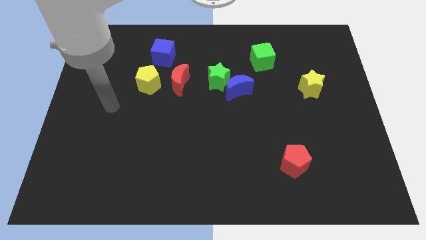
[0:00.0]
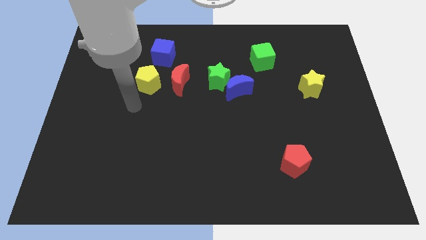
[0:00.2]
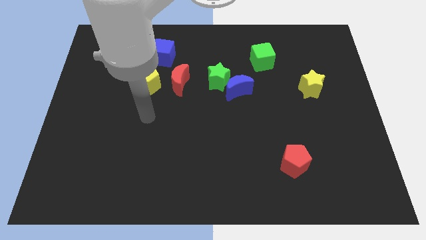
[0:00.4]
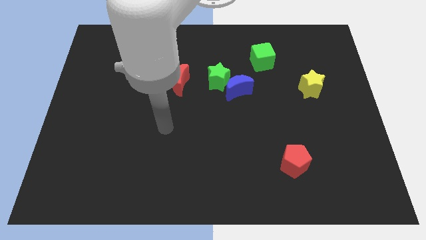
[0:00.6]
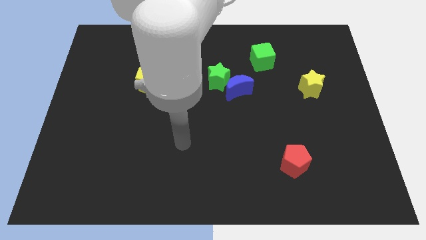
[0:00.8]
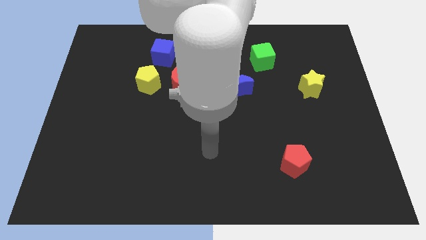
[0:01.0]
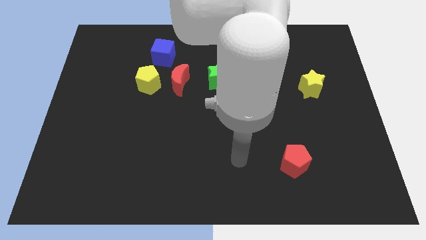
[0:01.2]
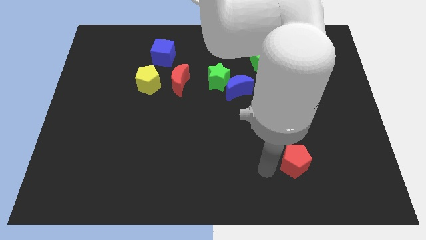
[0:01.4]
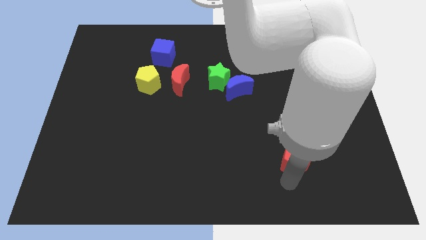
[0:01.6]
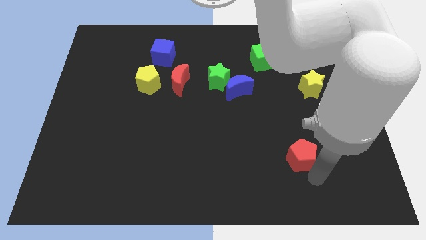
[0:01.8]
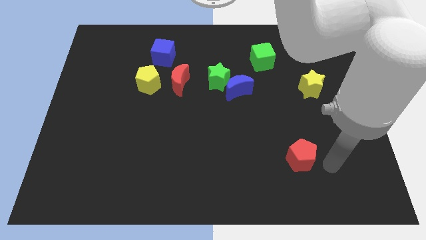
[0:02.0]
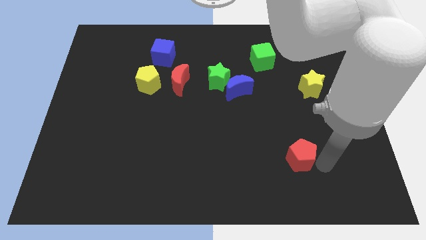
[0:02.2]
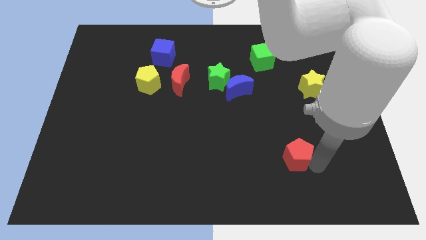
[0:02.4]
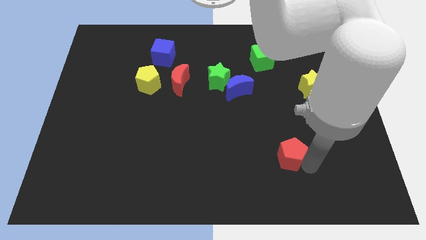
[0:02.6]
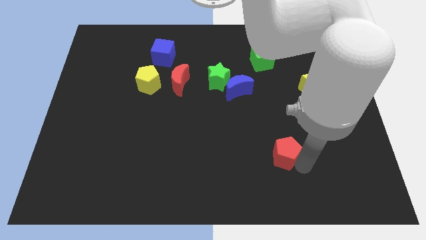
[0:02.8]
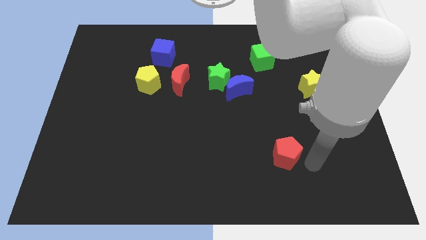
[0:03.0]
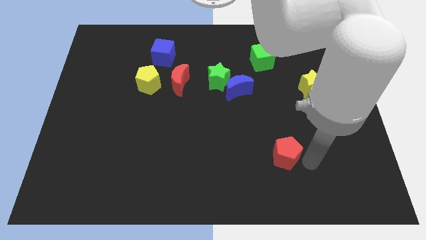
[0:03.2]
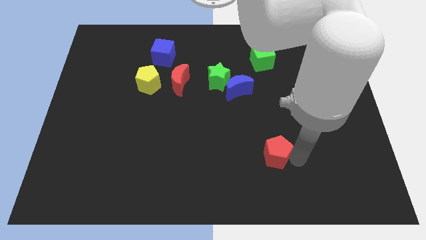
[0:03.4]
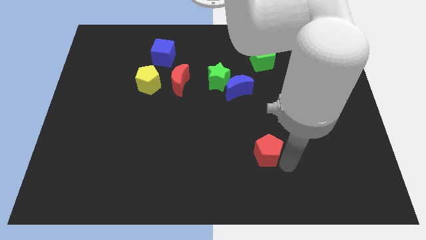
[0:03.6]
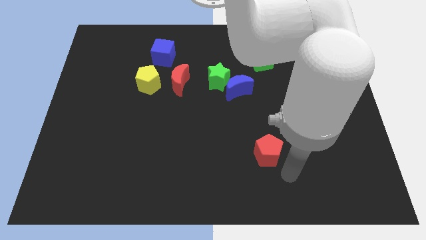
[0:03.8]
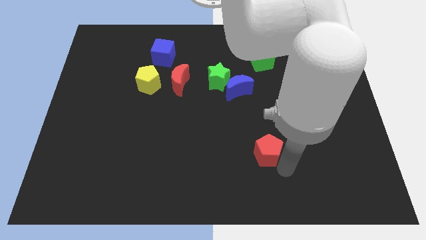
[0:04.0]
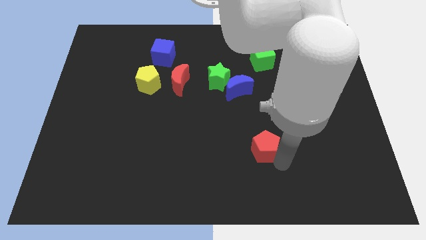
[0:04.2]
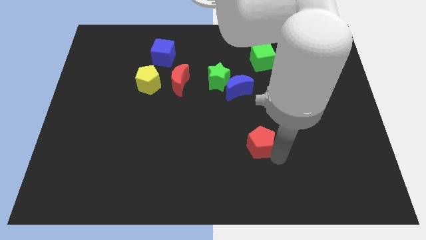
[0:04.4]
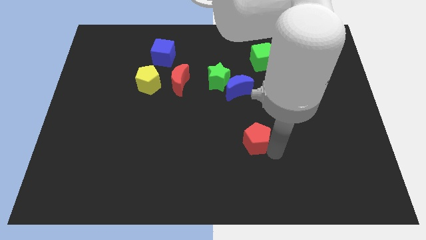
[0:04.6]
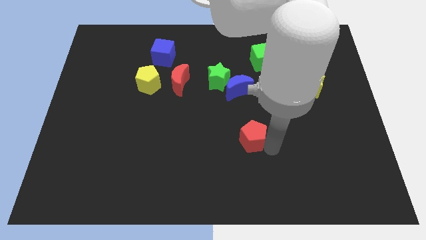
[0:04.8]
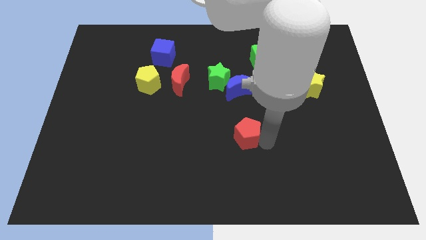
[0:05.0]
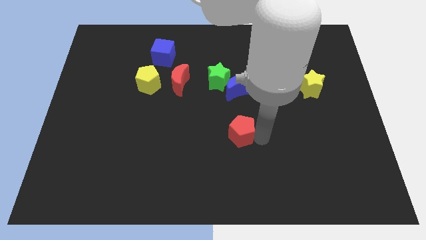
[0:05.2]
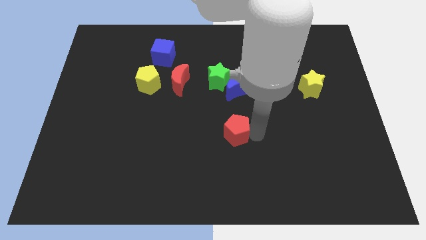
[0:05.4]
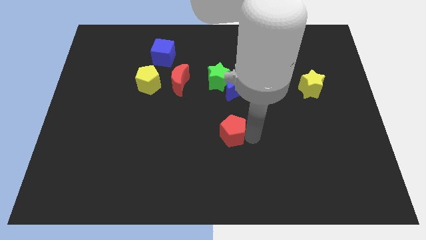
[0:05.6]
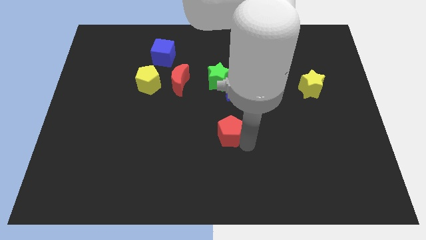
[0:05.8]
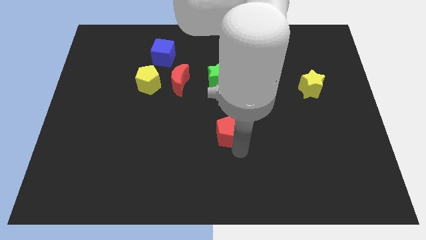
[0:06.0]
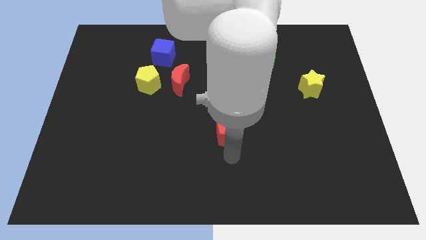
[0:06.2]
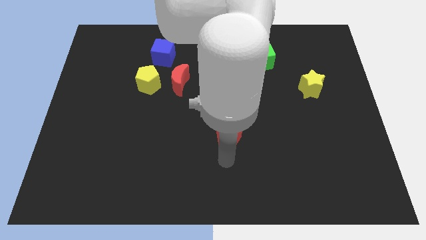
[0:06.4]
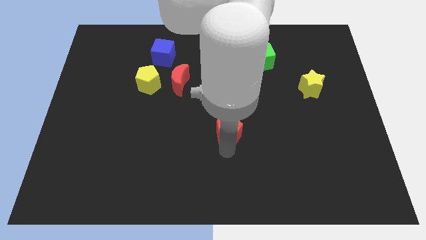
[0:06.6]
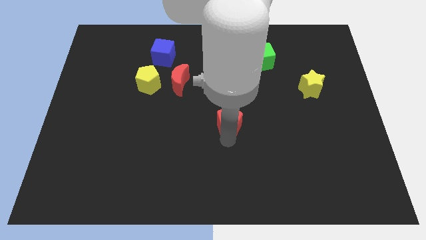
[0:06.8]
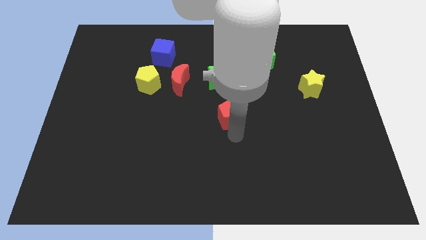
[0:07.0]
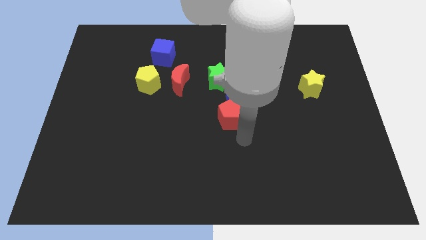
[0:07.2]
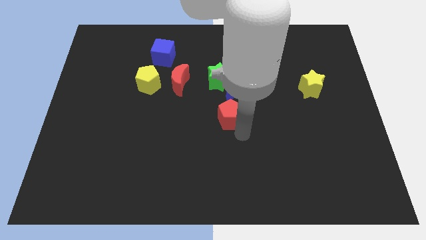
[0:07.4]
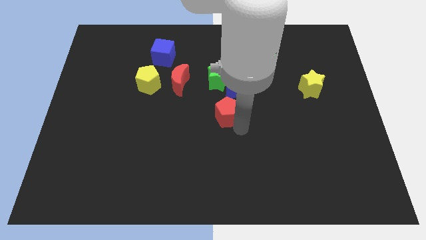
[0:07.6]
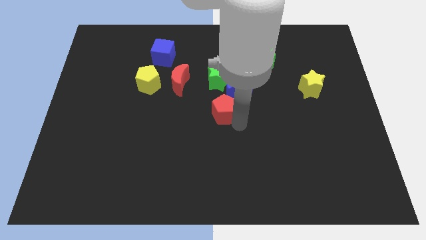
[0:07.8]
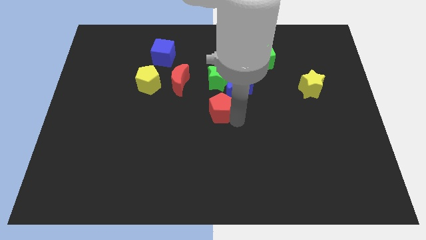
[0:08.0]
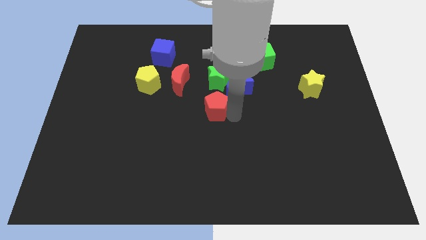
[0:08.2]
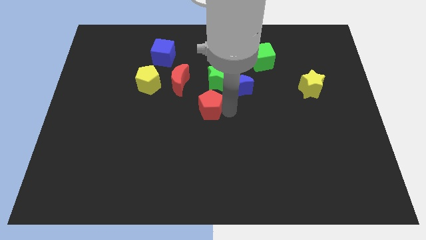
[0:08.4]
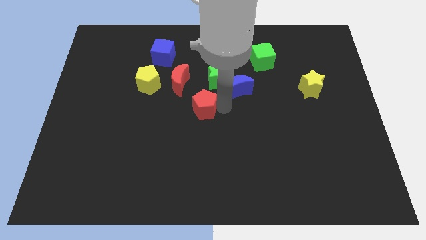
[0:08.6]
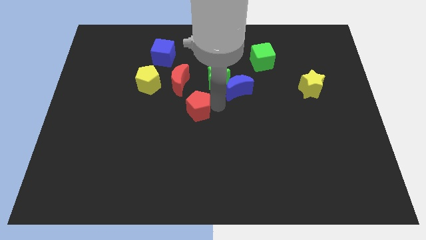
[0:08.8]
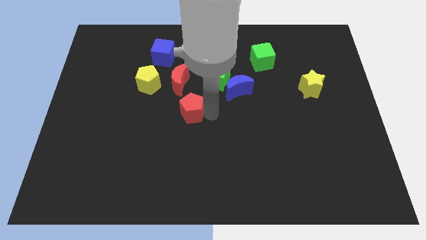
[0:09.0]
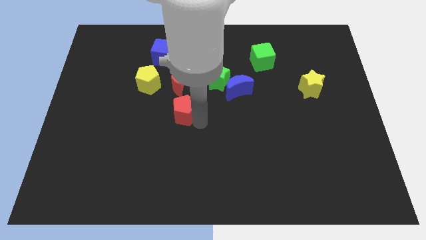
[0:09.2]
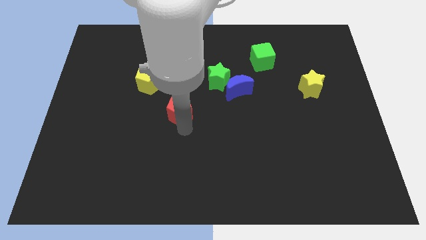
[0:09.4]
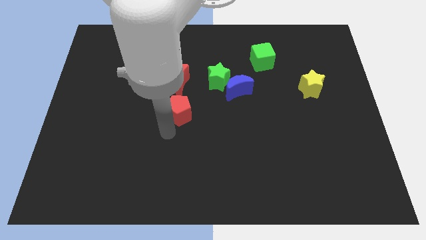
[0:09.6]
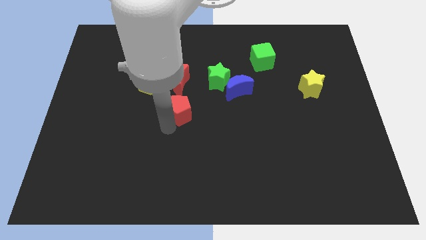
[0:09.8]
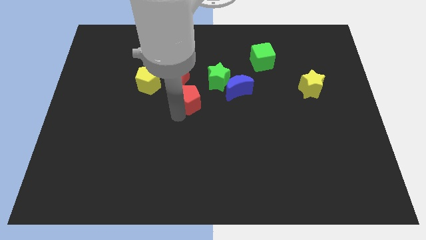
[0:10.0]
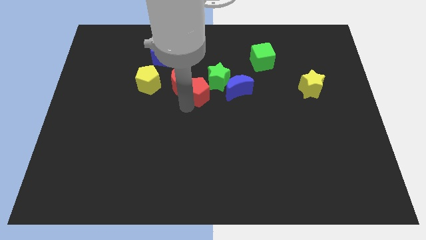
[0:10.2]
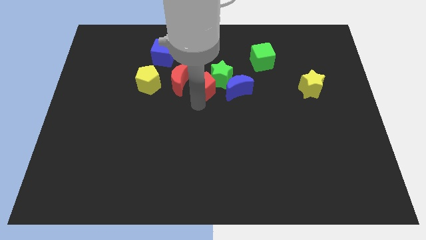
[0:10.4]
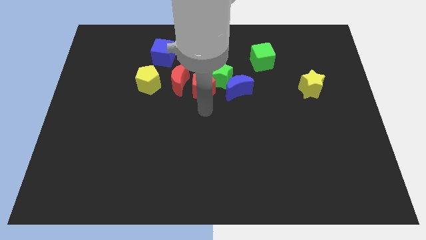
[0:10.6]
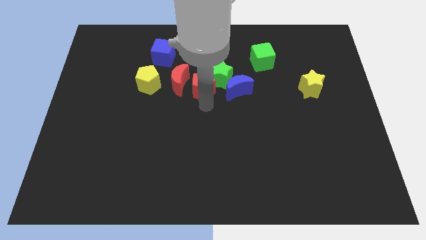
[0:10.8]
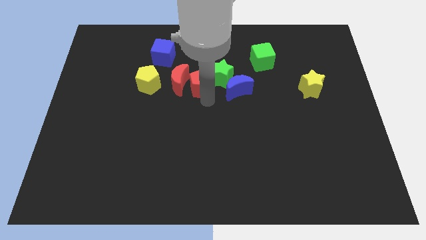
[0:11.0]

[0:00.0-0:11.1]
move the red pentagon to the top right of the red moon

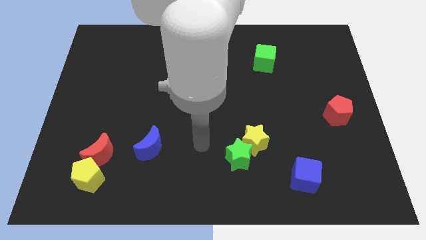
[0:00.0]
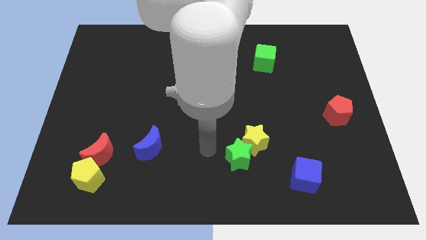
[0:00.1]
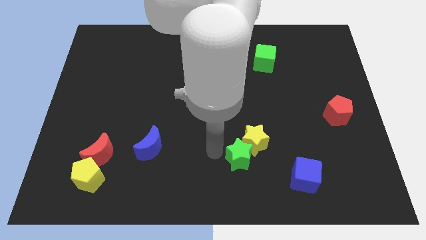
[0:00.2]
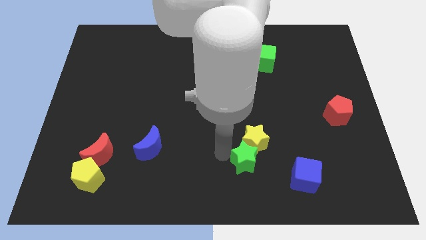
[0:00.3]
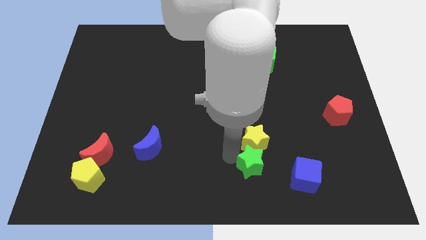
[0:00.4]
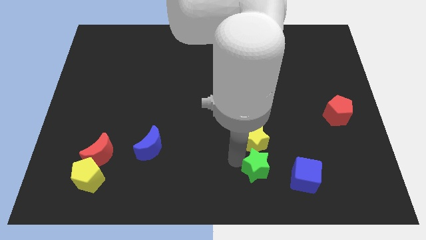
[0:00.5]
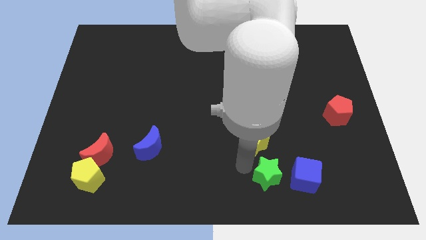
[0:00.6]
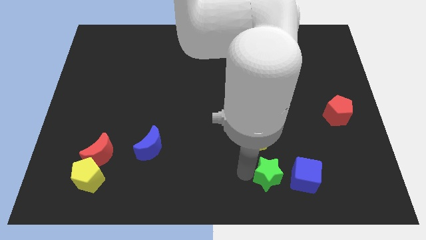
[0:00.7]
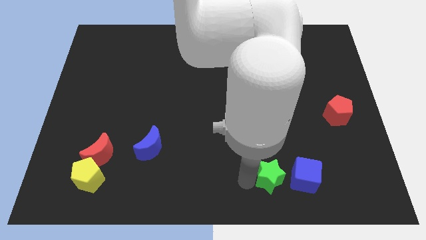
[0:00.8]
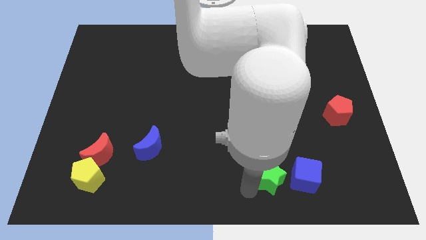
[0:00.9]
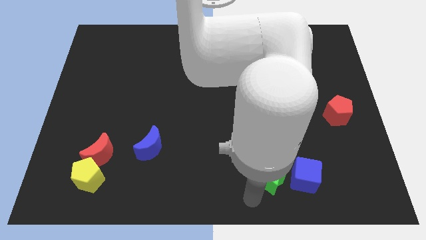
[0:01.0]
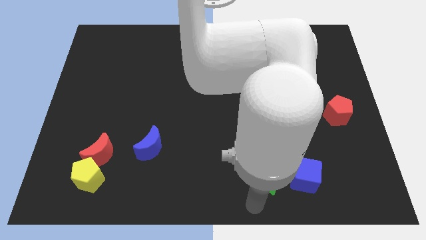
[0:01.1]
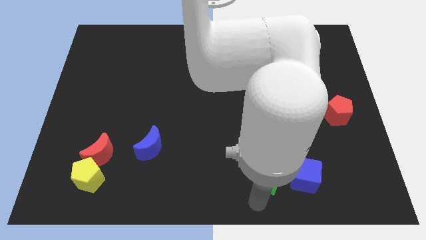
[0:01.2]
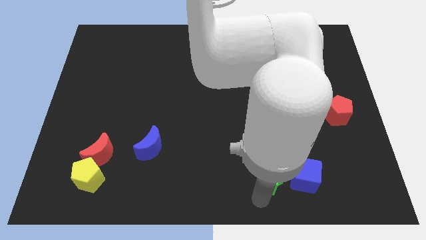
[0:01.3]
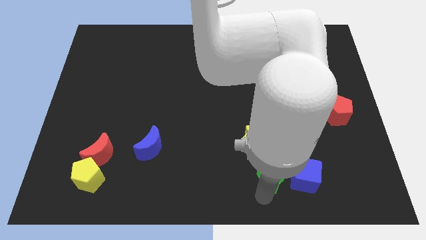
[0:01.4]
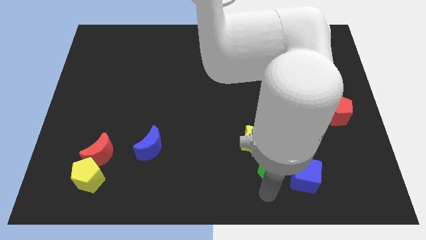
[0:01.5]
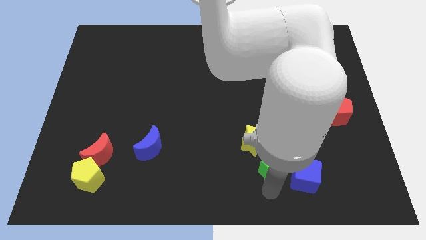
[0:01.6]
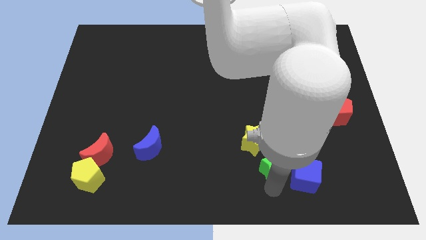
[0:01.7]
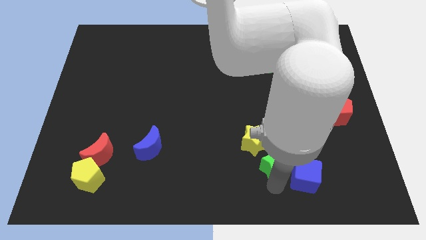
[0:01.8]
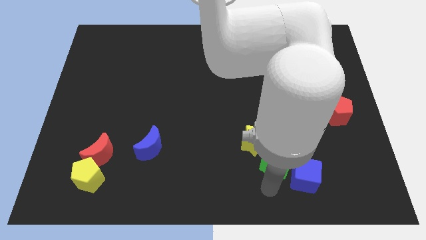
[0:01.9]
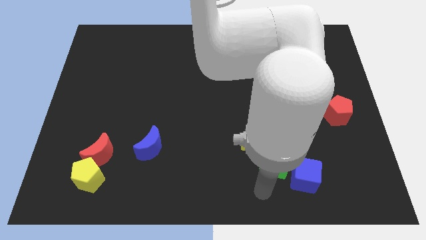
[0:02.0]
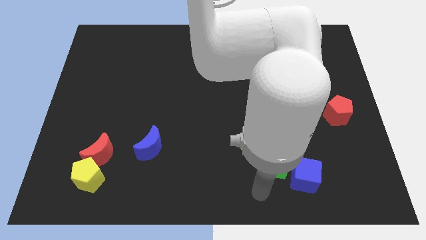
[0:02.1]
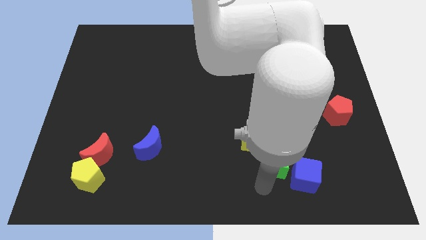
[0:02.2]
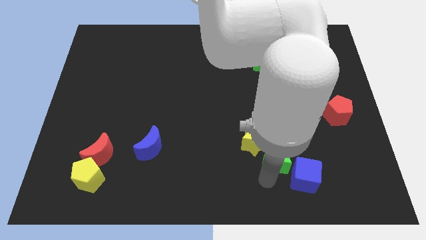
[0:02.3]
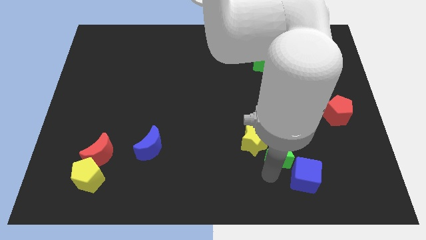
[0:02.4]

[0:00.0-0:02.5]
push the green star above the blue cube
